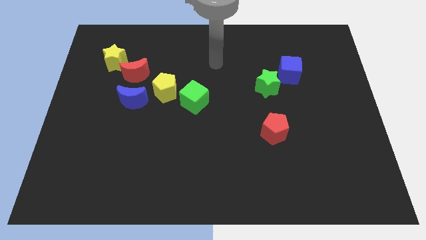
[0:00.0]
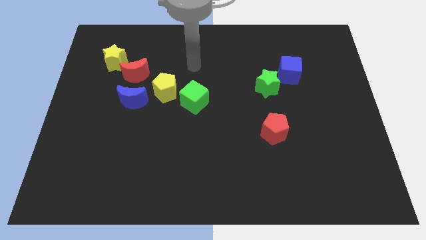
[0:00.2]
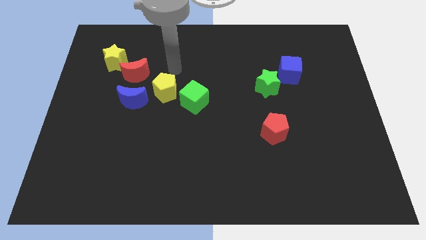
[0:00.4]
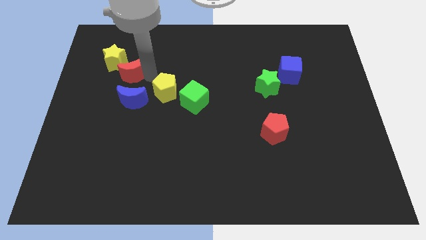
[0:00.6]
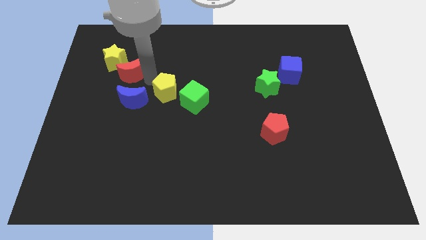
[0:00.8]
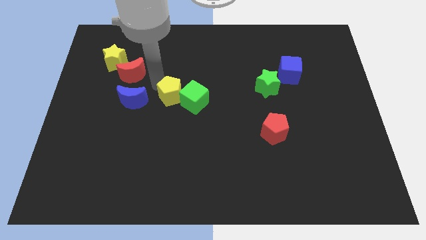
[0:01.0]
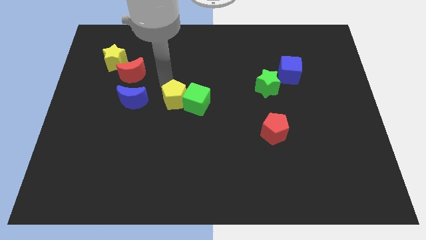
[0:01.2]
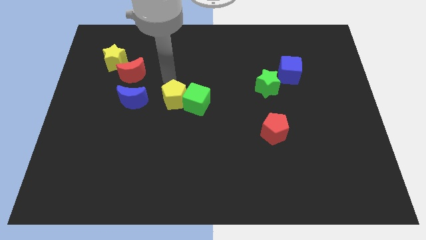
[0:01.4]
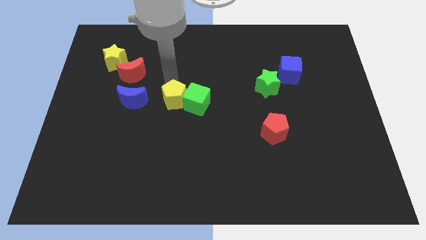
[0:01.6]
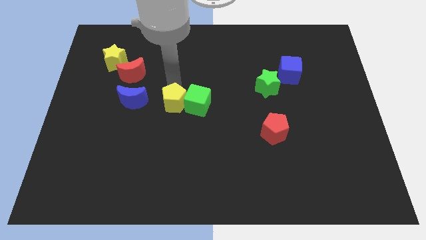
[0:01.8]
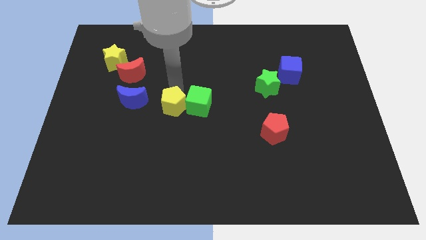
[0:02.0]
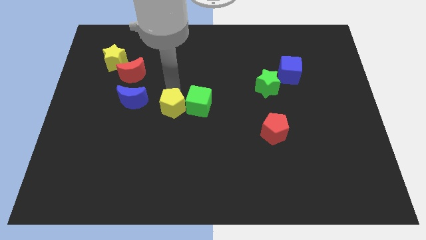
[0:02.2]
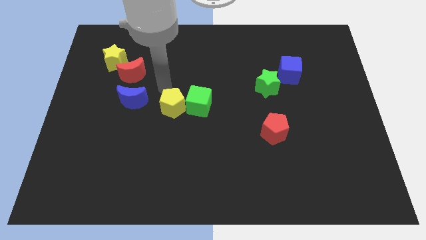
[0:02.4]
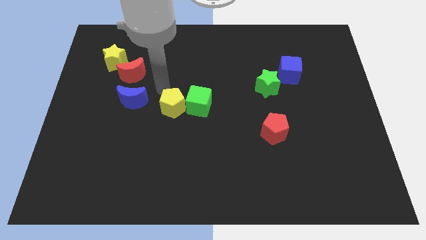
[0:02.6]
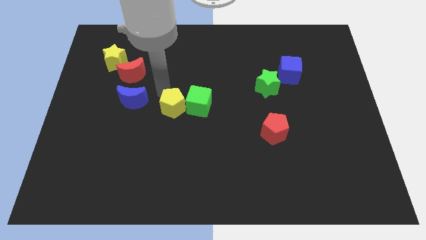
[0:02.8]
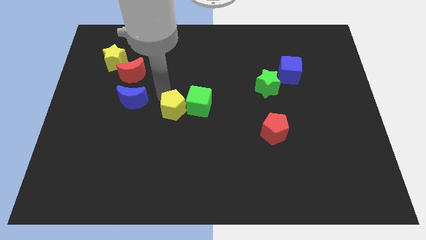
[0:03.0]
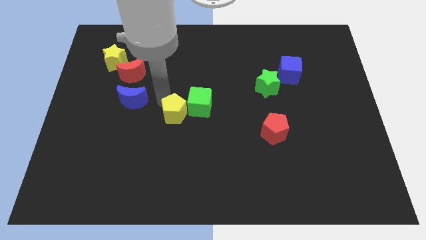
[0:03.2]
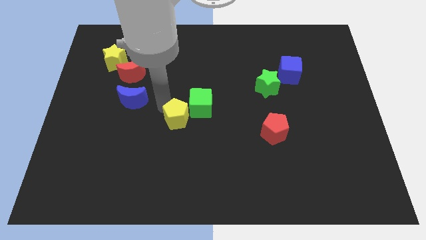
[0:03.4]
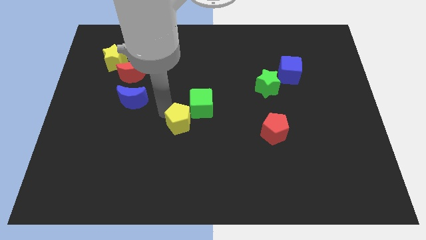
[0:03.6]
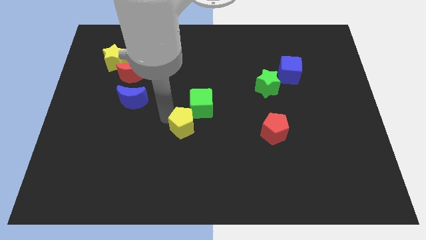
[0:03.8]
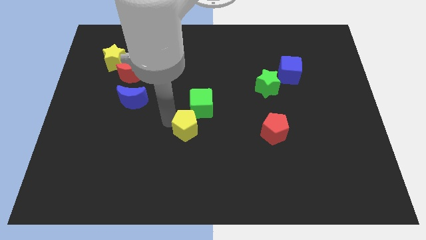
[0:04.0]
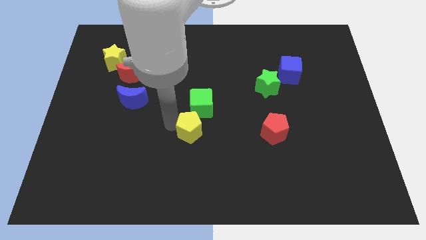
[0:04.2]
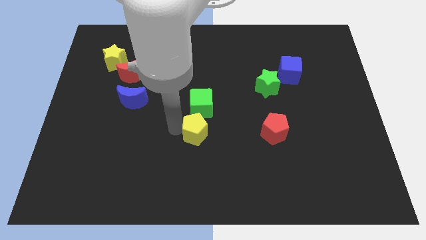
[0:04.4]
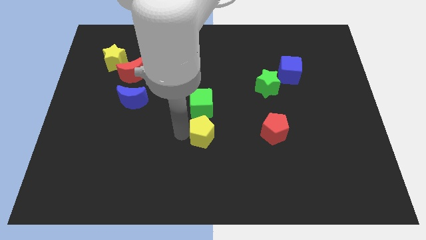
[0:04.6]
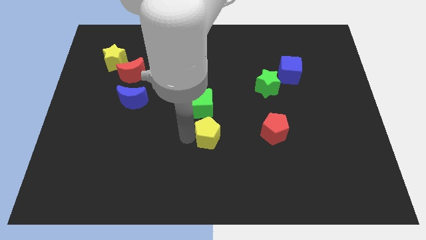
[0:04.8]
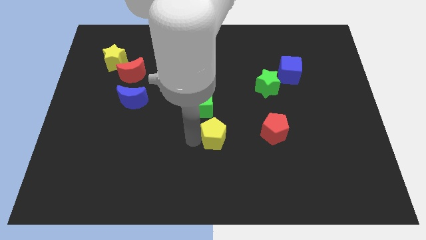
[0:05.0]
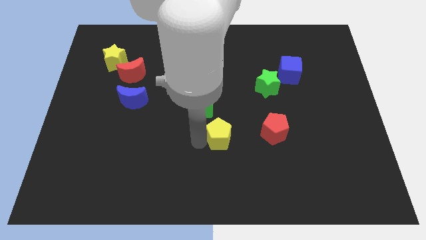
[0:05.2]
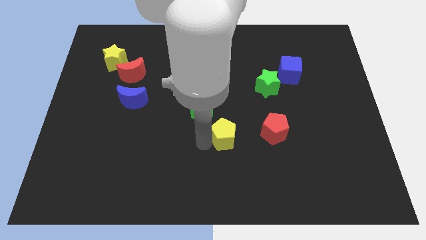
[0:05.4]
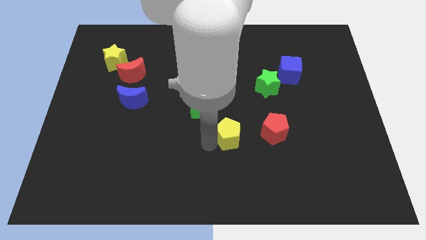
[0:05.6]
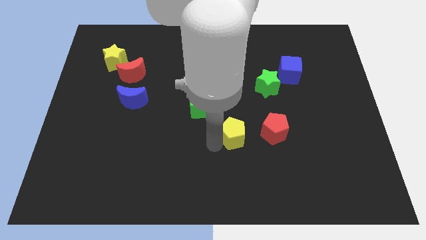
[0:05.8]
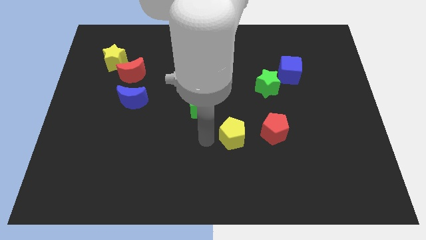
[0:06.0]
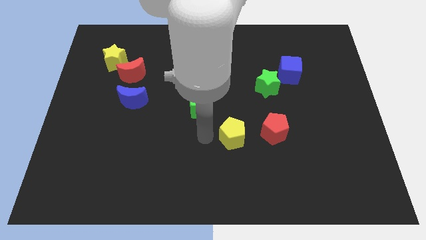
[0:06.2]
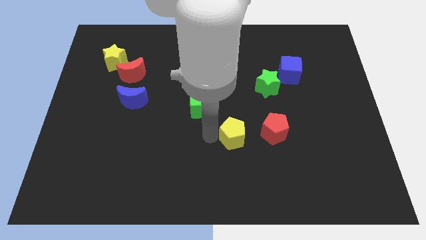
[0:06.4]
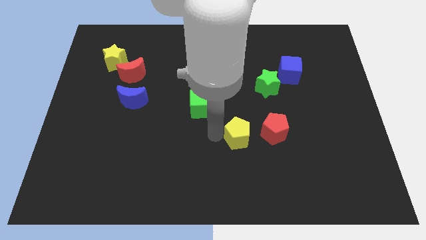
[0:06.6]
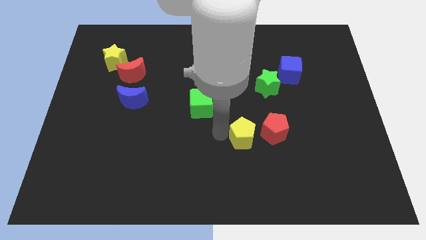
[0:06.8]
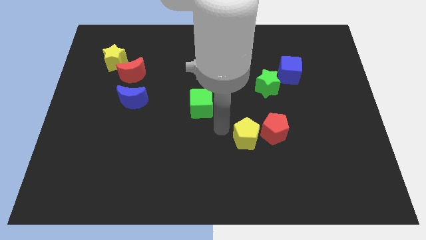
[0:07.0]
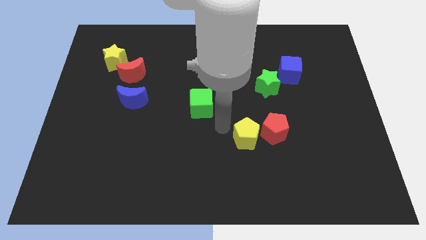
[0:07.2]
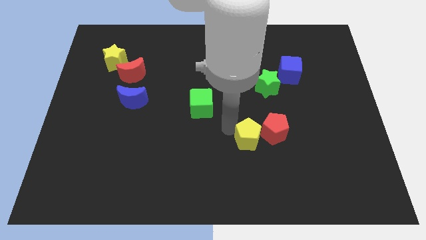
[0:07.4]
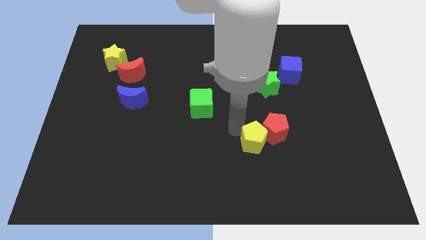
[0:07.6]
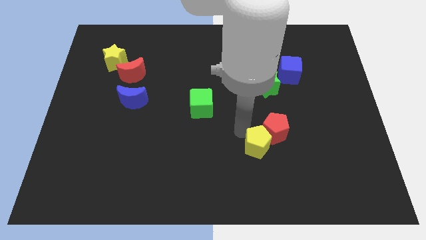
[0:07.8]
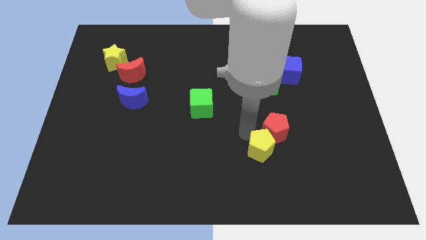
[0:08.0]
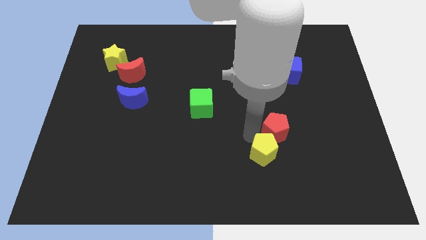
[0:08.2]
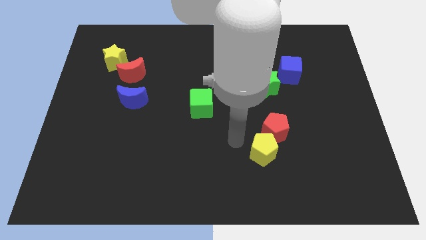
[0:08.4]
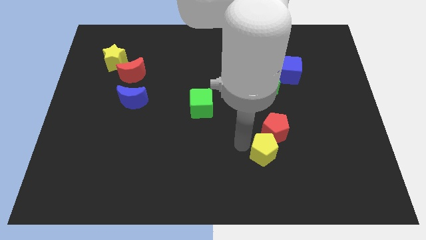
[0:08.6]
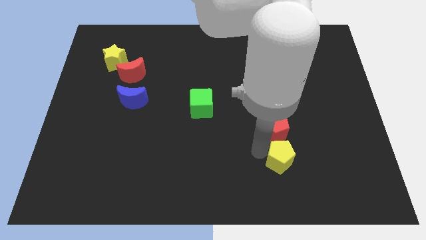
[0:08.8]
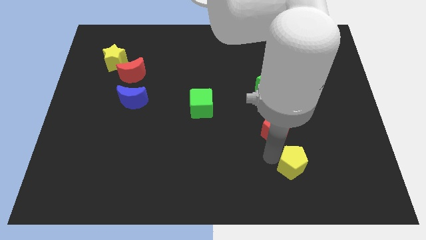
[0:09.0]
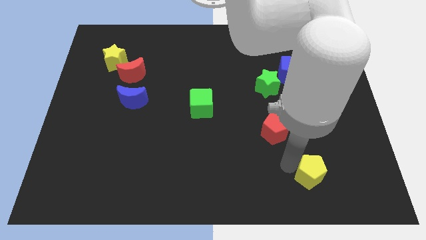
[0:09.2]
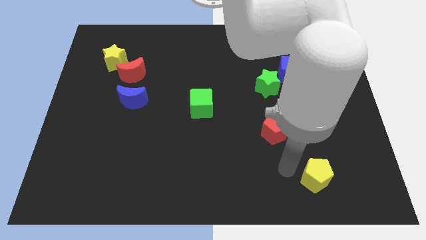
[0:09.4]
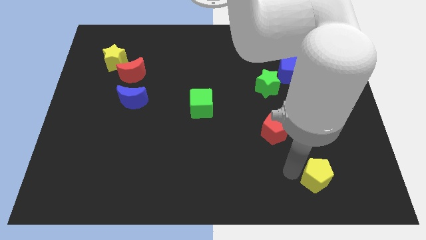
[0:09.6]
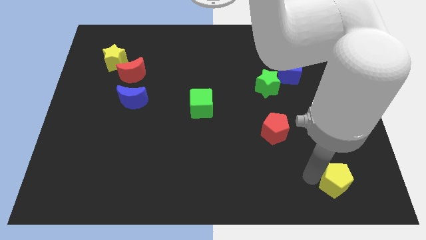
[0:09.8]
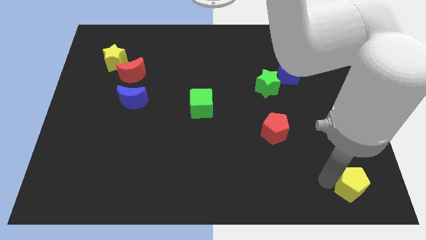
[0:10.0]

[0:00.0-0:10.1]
move the yellow pentagon to the bottom right of the board

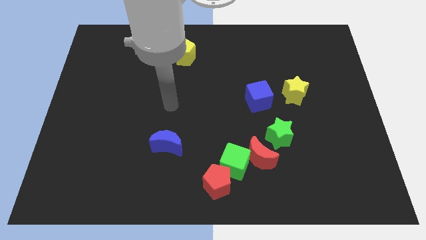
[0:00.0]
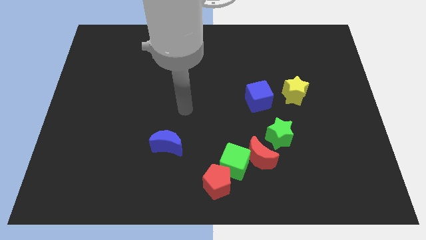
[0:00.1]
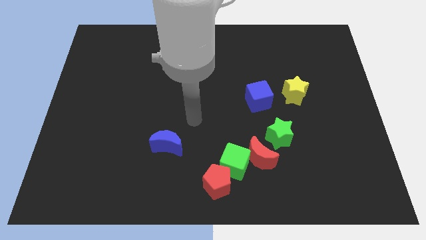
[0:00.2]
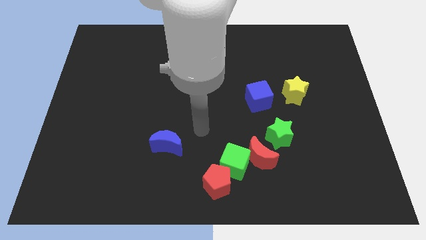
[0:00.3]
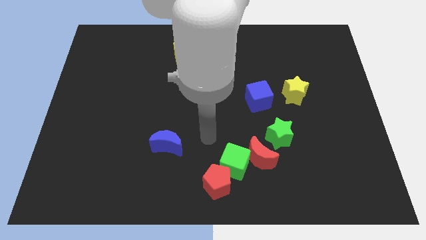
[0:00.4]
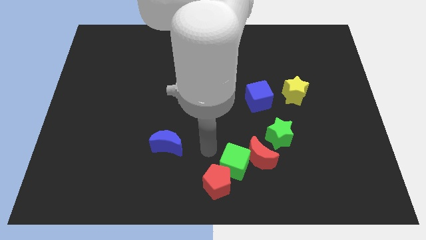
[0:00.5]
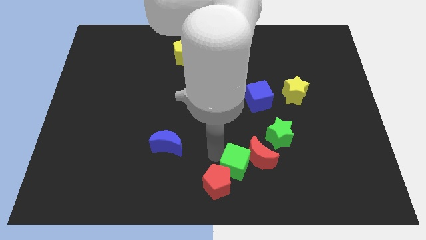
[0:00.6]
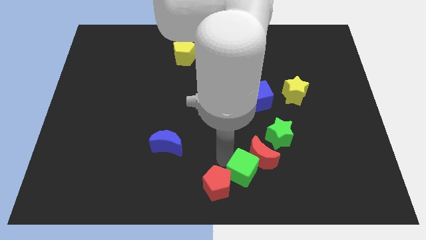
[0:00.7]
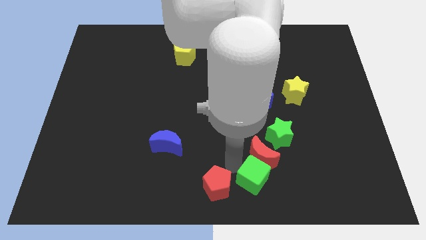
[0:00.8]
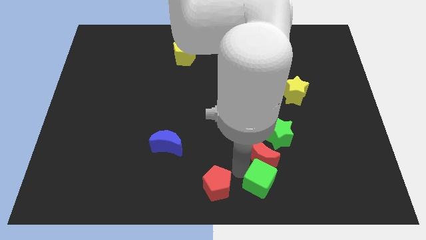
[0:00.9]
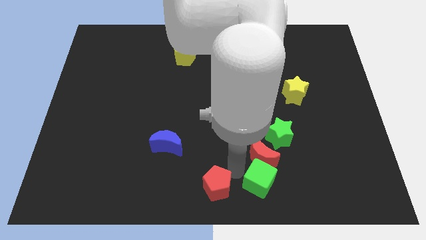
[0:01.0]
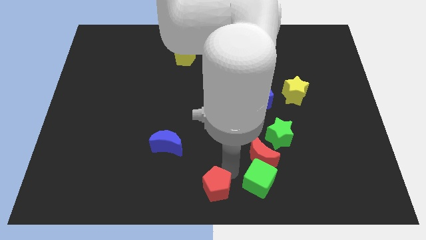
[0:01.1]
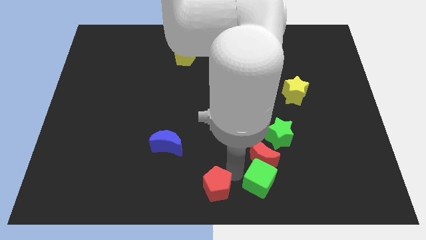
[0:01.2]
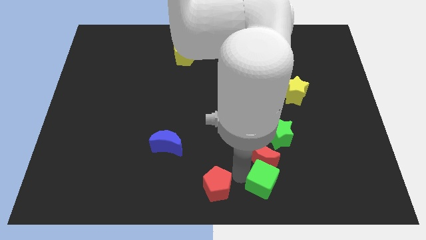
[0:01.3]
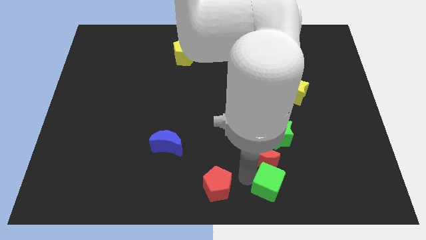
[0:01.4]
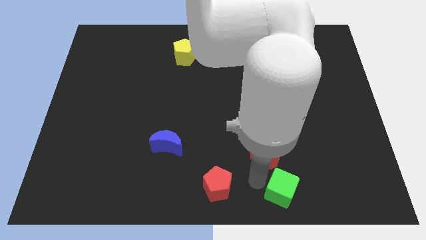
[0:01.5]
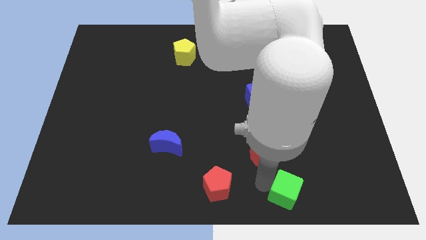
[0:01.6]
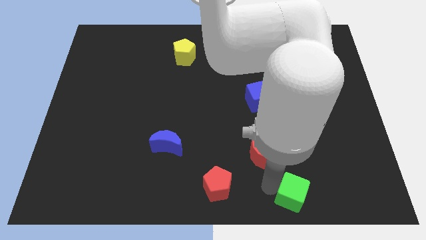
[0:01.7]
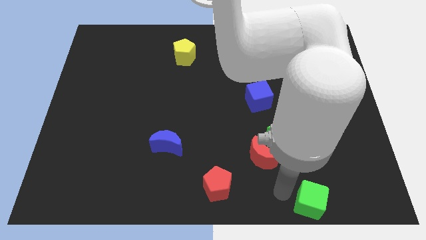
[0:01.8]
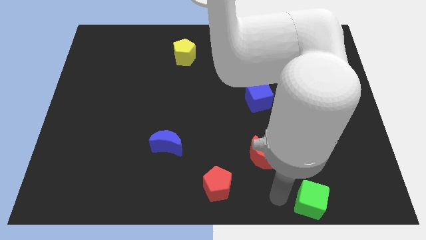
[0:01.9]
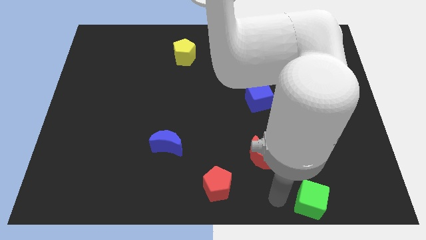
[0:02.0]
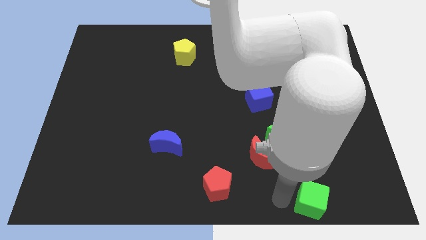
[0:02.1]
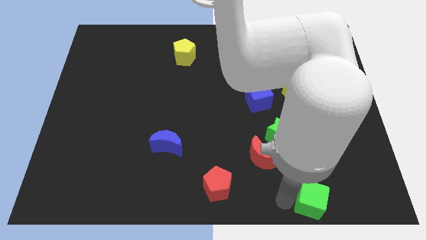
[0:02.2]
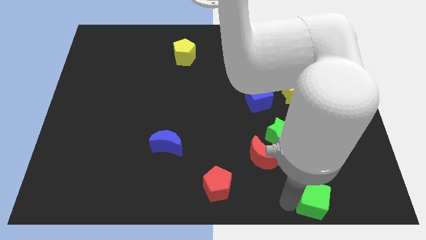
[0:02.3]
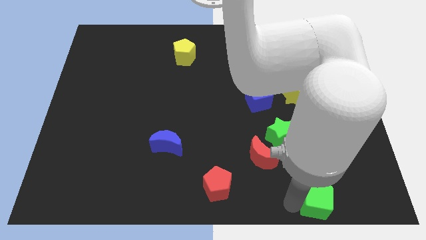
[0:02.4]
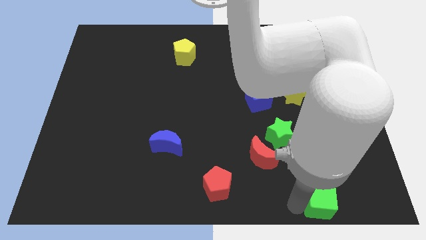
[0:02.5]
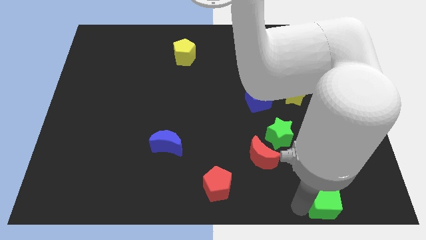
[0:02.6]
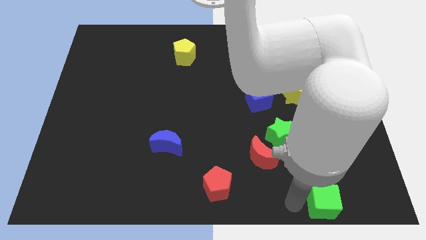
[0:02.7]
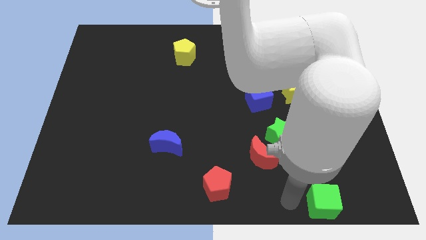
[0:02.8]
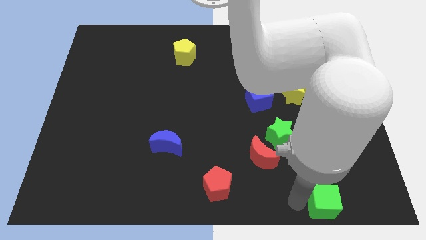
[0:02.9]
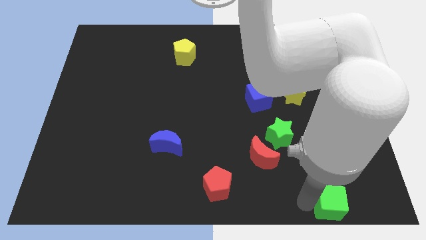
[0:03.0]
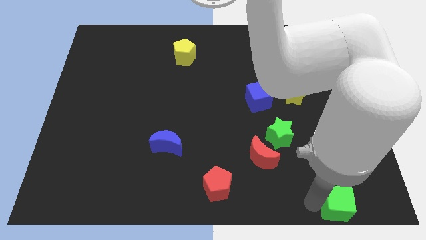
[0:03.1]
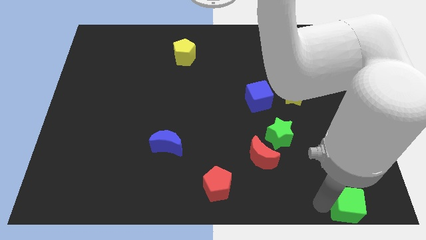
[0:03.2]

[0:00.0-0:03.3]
move the green cube to the lower right corner
